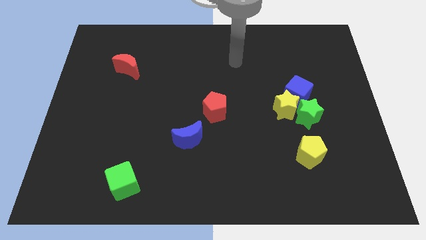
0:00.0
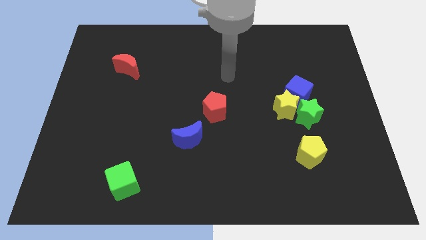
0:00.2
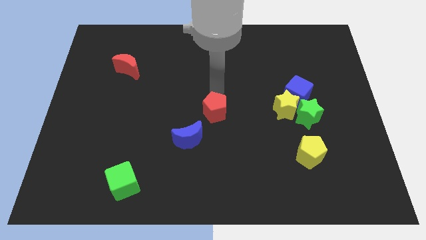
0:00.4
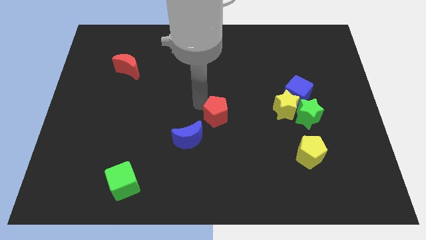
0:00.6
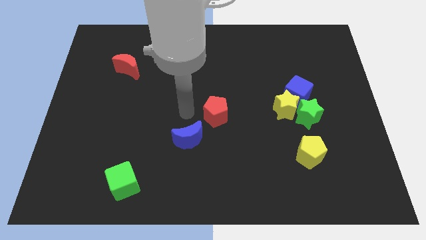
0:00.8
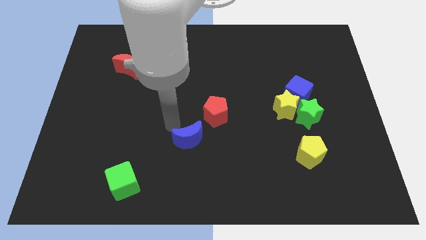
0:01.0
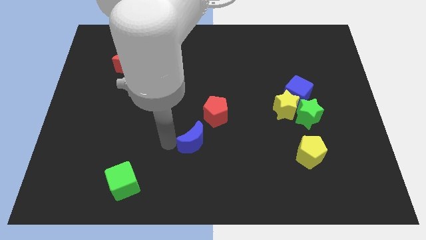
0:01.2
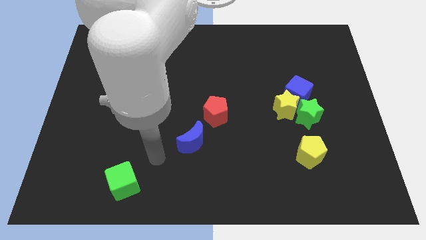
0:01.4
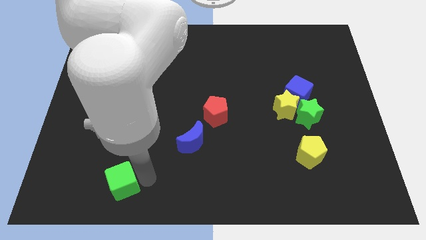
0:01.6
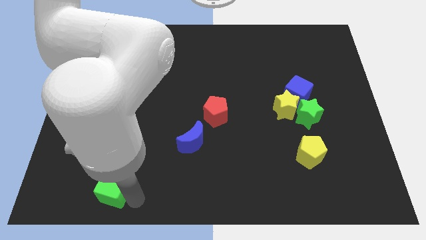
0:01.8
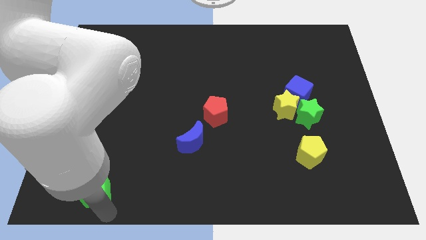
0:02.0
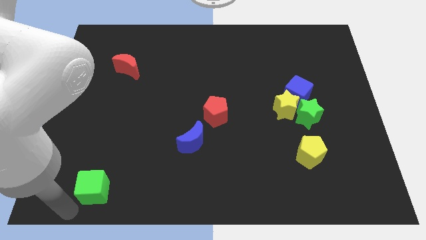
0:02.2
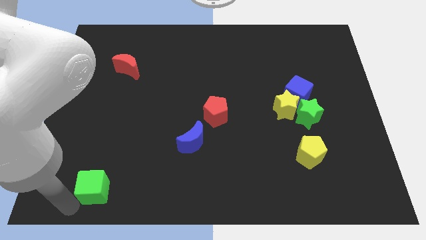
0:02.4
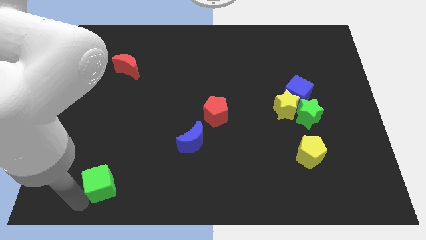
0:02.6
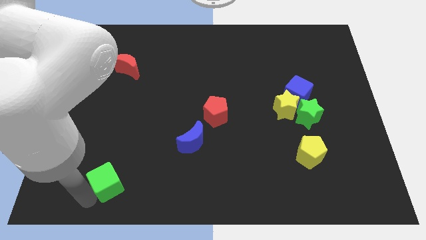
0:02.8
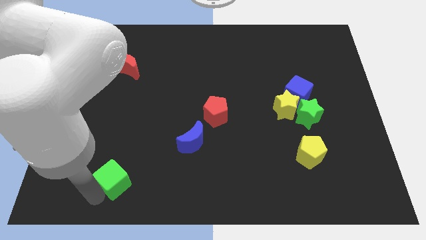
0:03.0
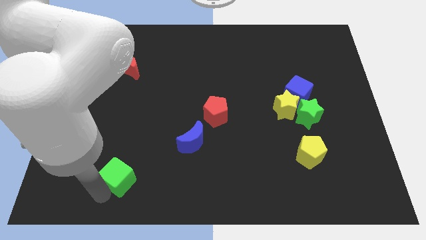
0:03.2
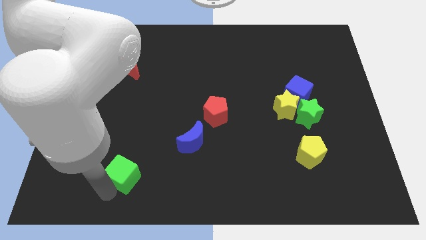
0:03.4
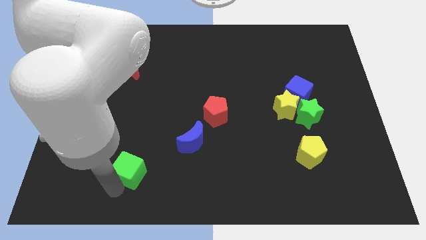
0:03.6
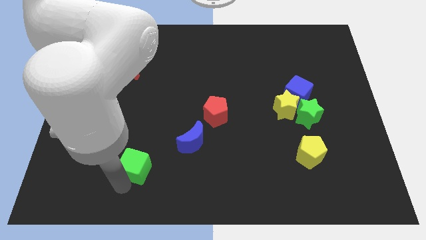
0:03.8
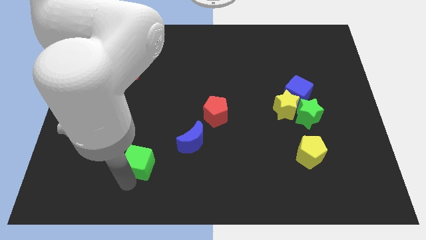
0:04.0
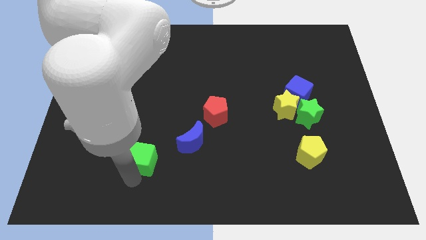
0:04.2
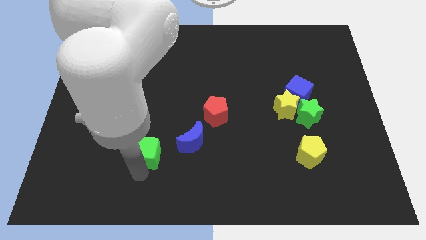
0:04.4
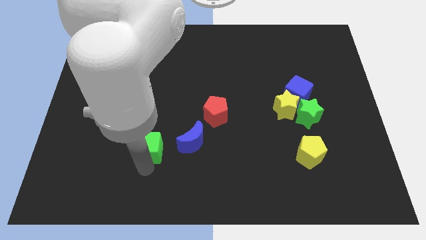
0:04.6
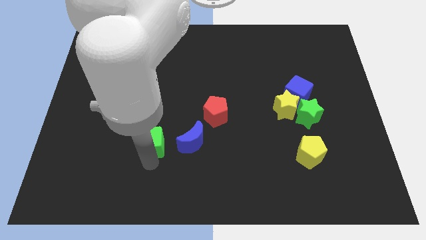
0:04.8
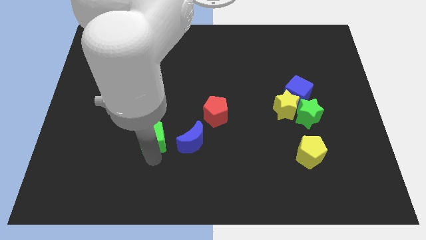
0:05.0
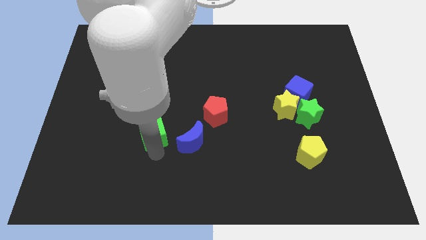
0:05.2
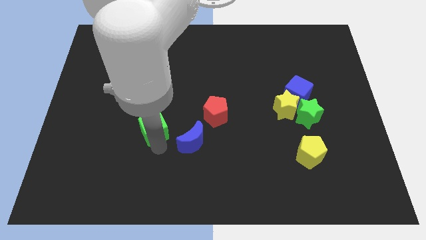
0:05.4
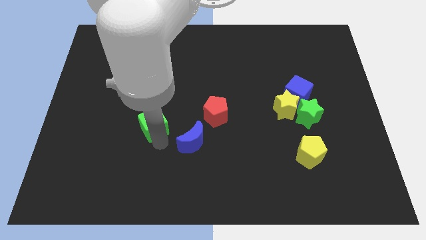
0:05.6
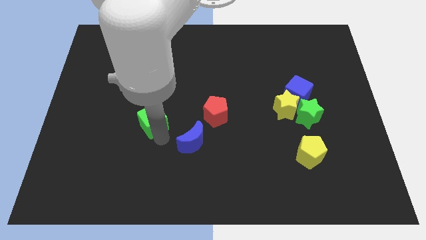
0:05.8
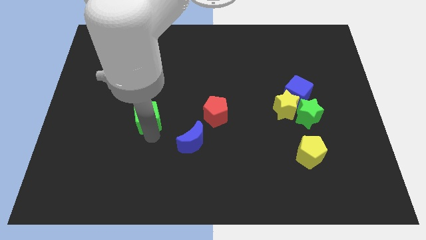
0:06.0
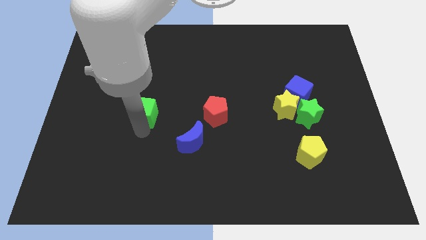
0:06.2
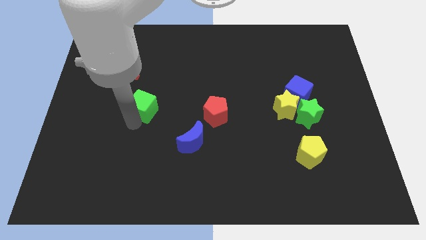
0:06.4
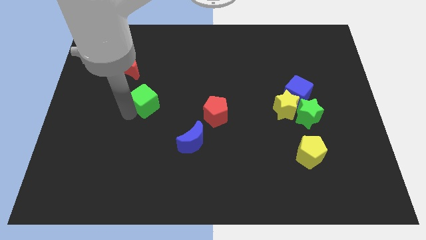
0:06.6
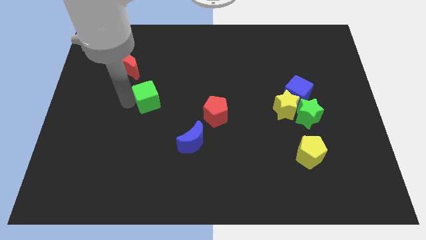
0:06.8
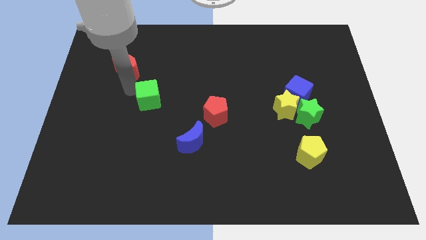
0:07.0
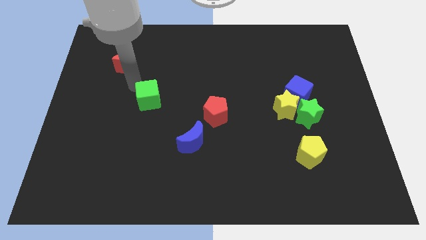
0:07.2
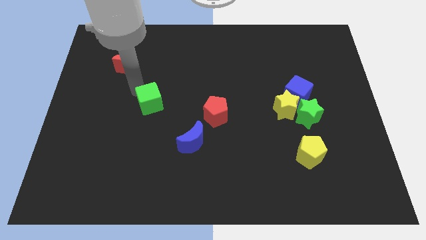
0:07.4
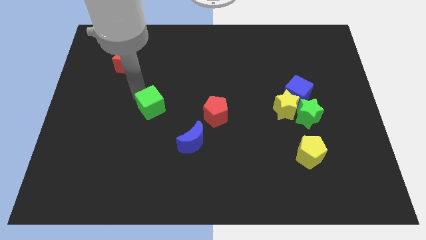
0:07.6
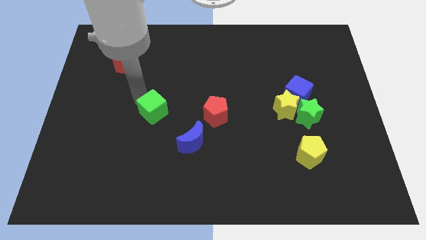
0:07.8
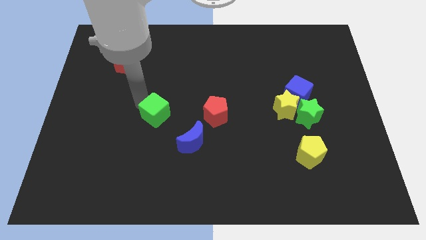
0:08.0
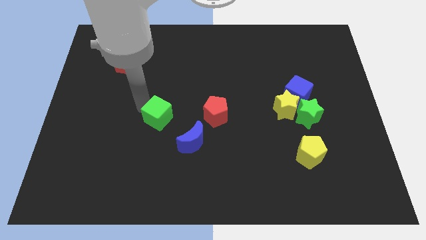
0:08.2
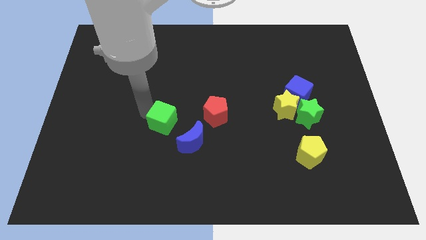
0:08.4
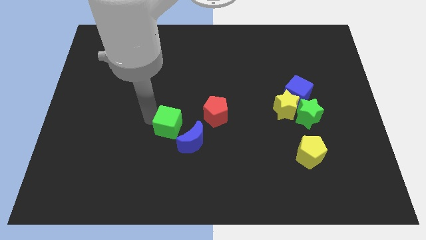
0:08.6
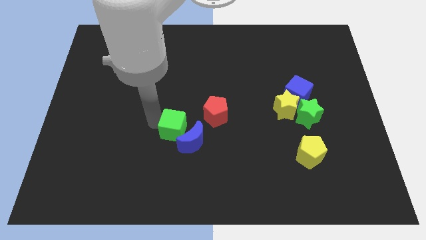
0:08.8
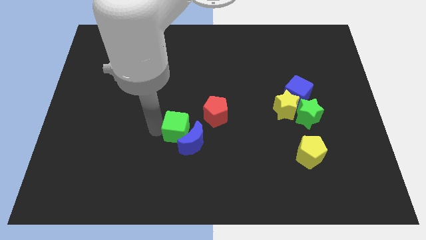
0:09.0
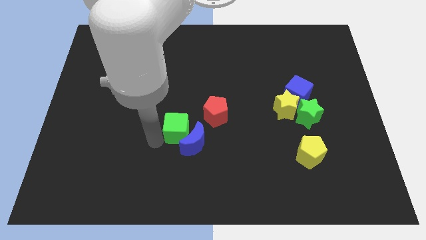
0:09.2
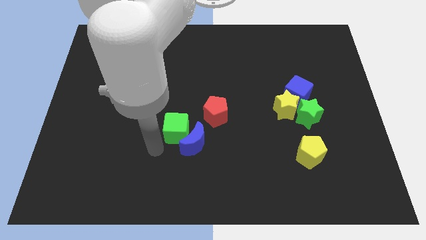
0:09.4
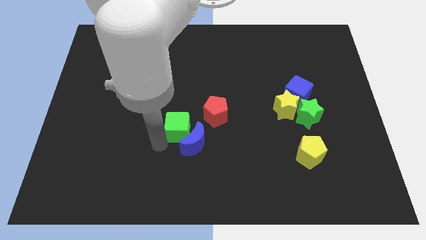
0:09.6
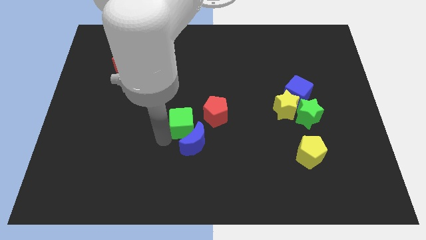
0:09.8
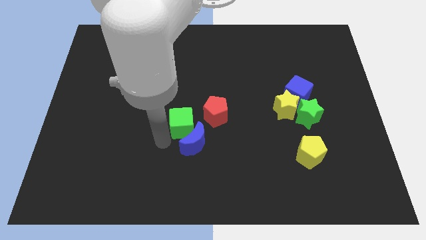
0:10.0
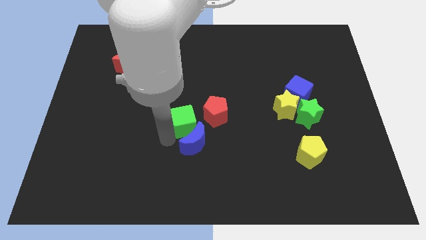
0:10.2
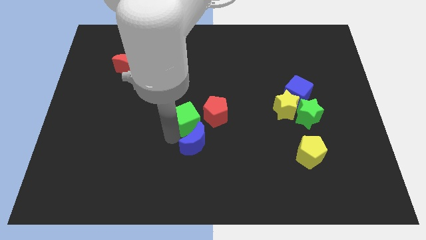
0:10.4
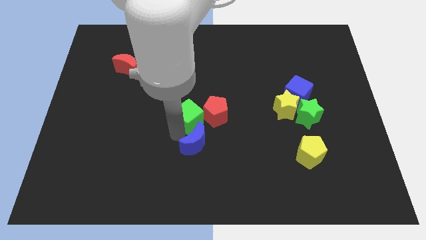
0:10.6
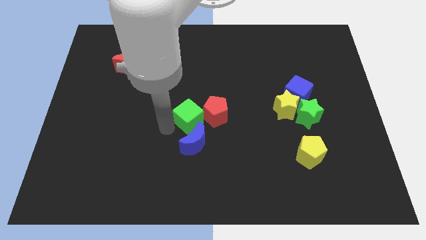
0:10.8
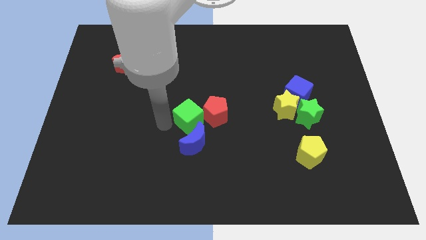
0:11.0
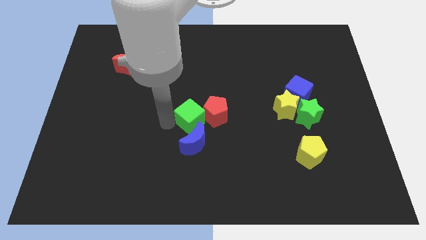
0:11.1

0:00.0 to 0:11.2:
move the green cube towards the red pentagon

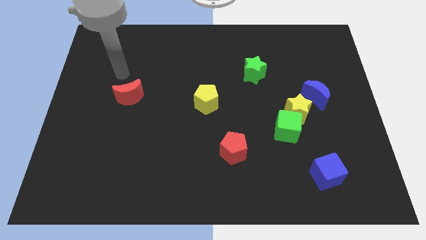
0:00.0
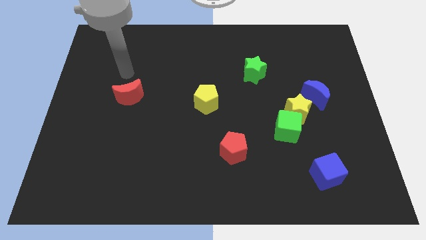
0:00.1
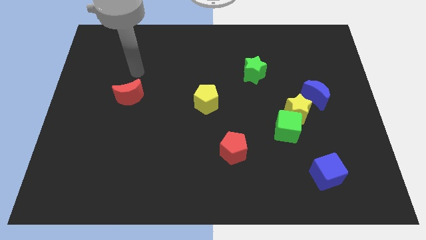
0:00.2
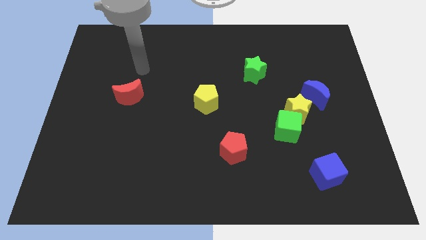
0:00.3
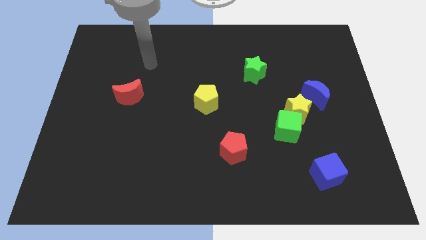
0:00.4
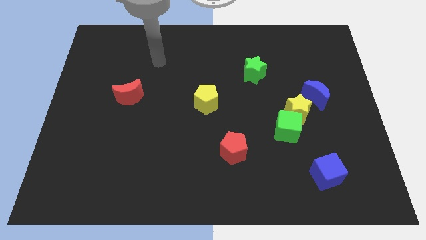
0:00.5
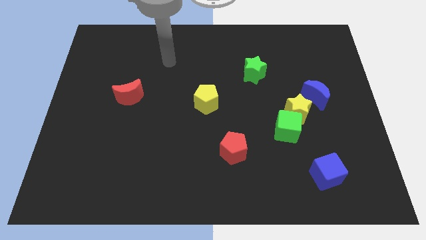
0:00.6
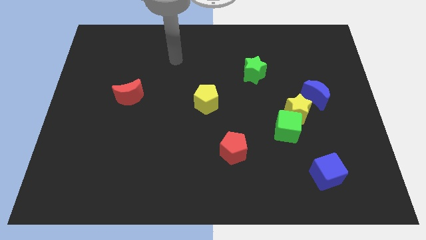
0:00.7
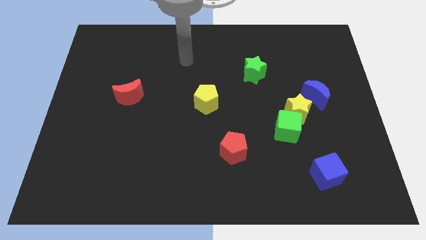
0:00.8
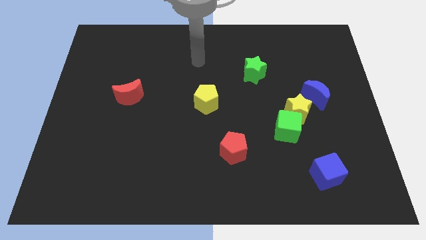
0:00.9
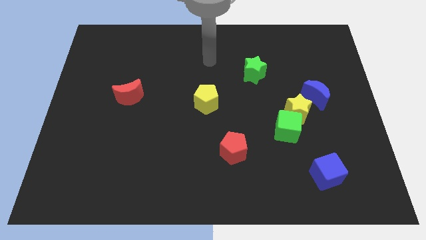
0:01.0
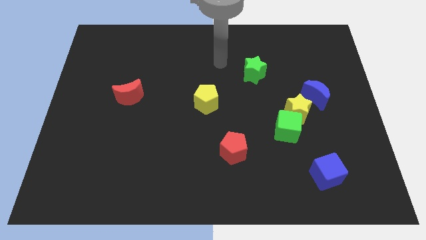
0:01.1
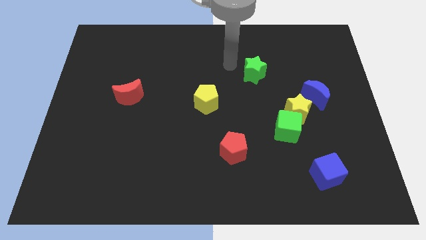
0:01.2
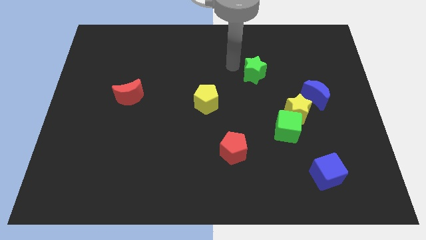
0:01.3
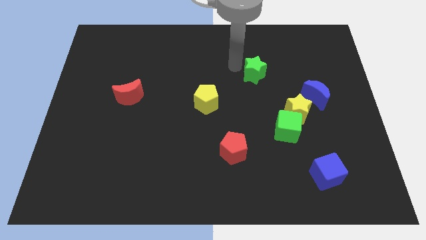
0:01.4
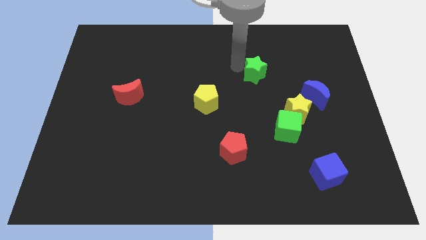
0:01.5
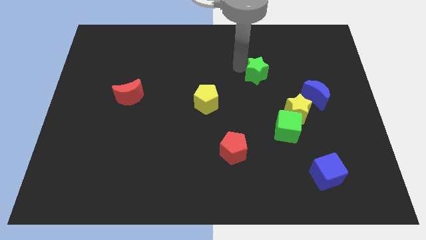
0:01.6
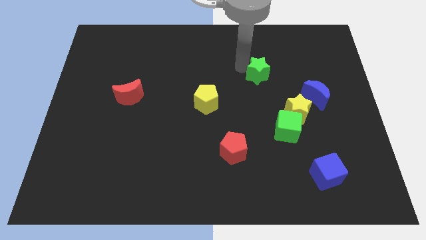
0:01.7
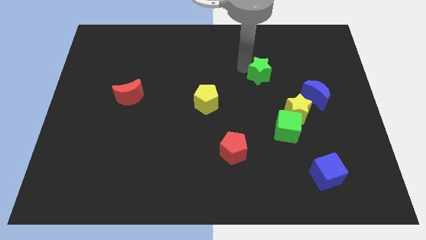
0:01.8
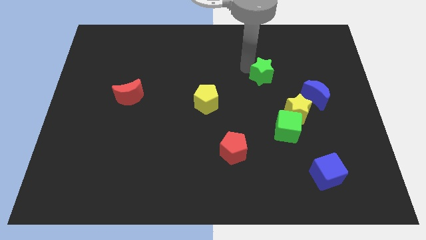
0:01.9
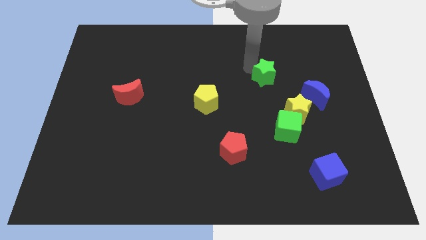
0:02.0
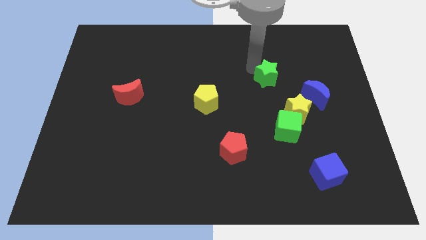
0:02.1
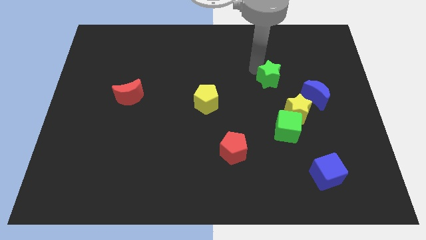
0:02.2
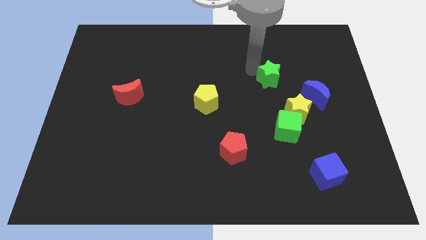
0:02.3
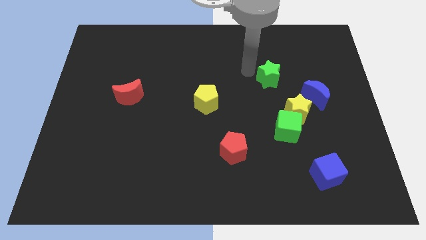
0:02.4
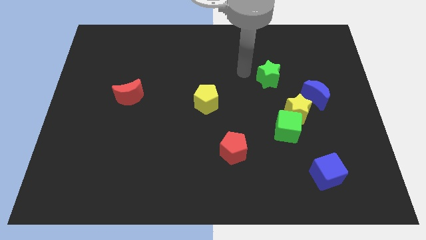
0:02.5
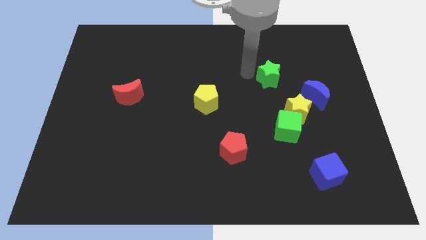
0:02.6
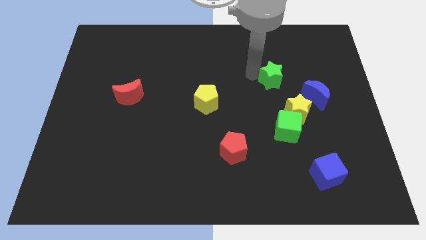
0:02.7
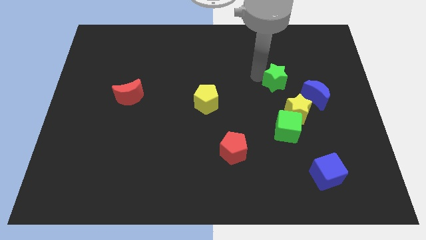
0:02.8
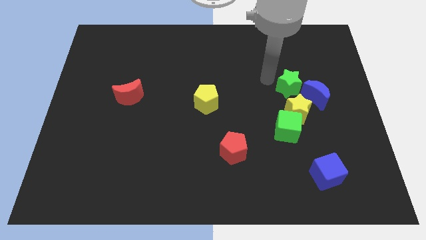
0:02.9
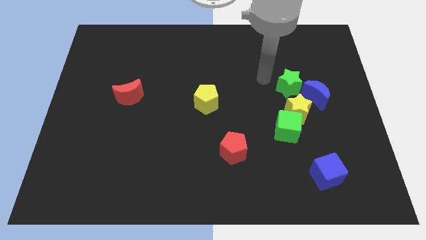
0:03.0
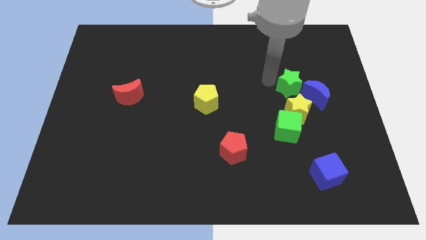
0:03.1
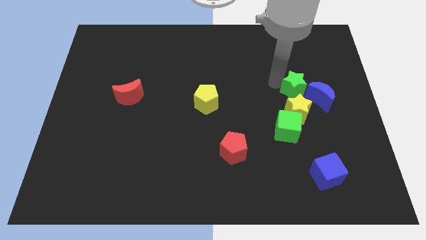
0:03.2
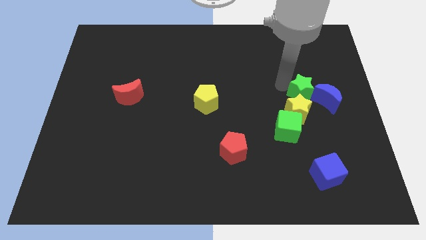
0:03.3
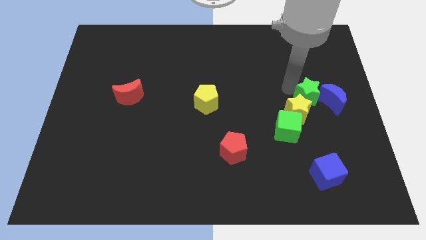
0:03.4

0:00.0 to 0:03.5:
slide the green star to the blue moon
